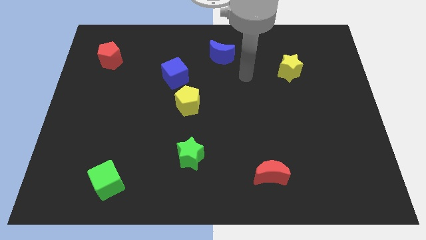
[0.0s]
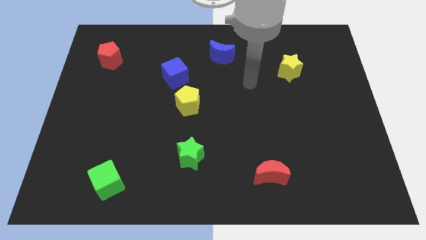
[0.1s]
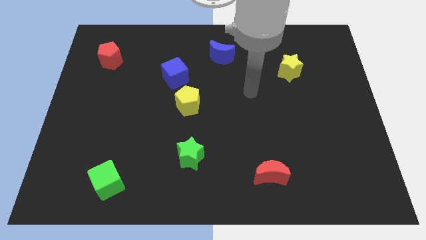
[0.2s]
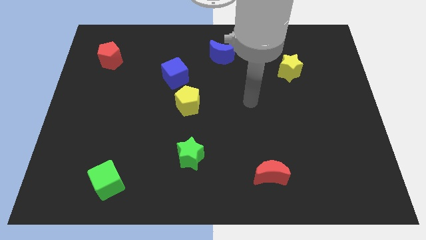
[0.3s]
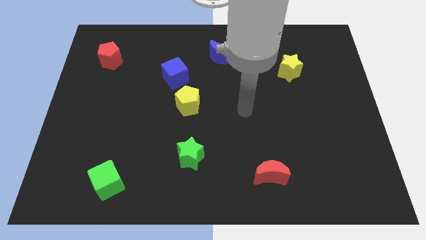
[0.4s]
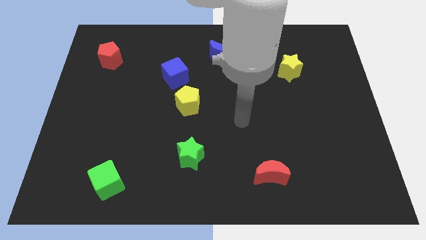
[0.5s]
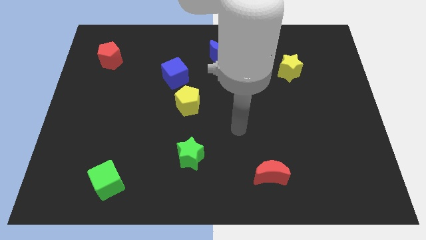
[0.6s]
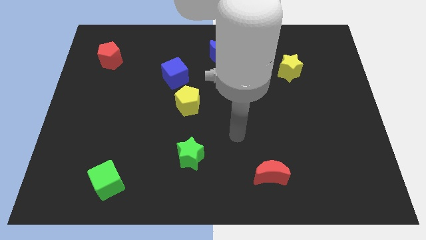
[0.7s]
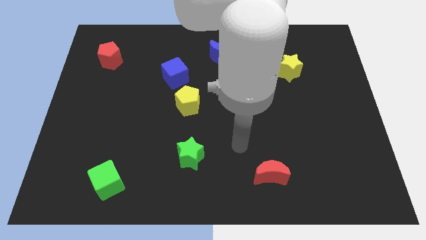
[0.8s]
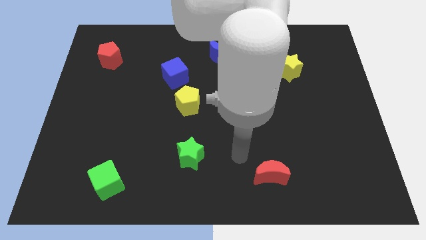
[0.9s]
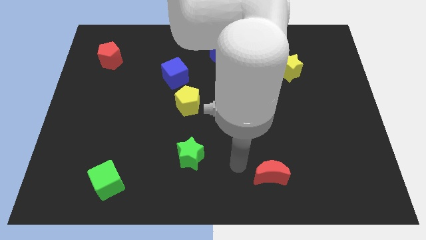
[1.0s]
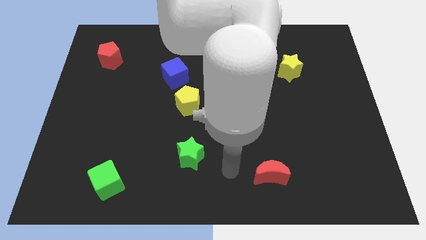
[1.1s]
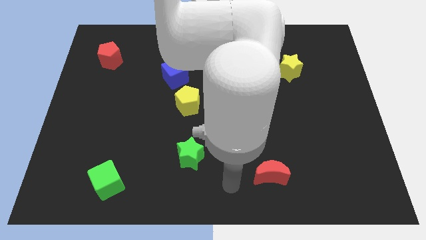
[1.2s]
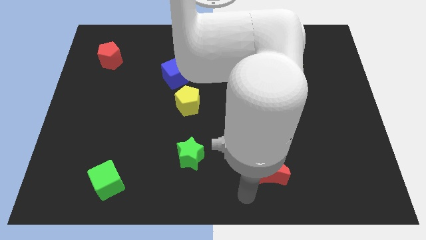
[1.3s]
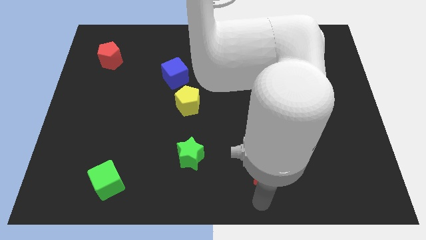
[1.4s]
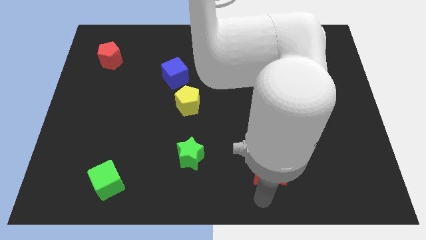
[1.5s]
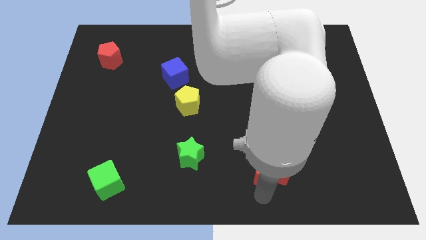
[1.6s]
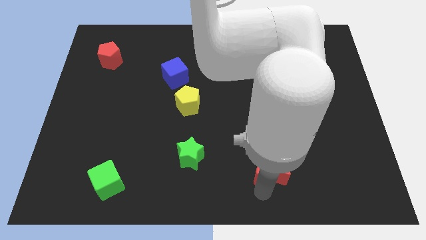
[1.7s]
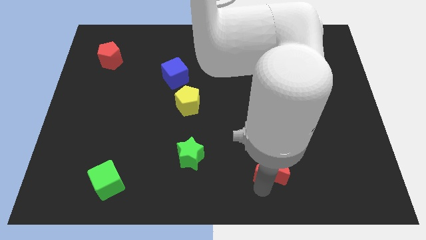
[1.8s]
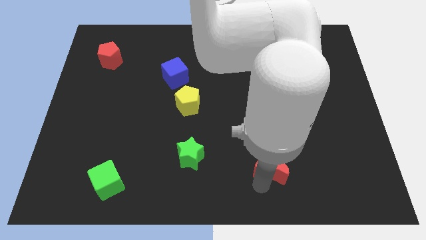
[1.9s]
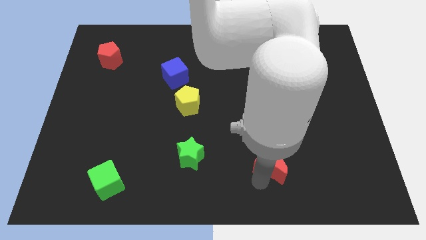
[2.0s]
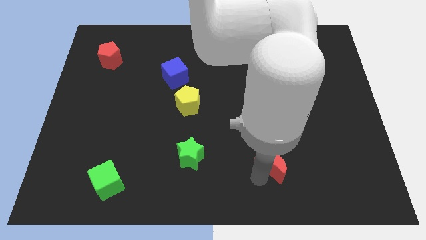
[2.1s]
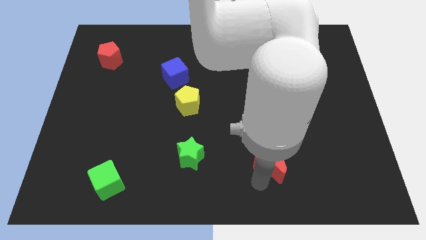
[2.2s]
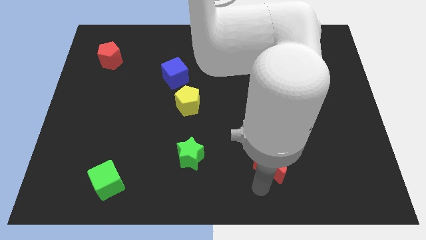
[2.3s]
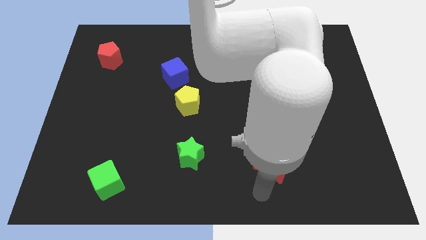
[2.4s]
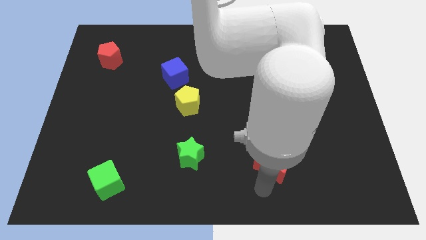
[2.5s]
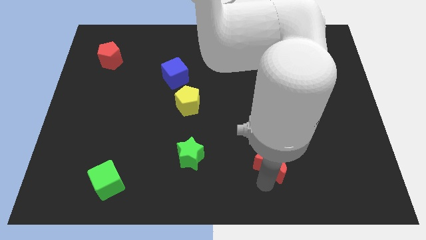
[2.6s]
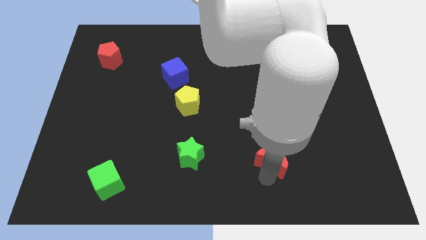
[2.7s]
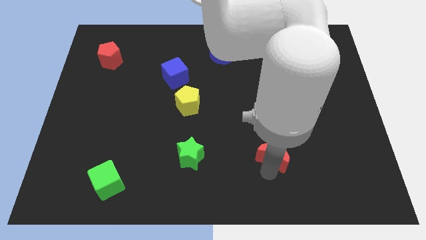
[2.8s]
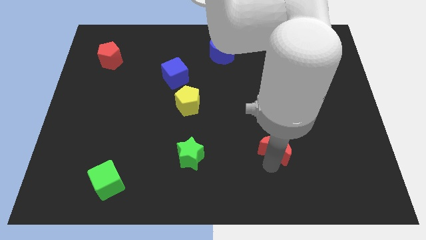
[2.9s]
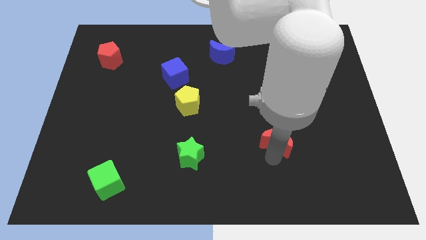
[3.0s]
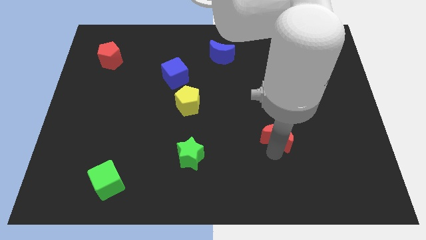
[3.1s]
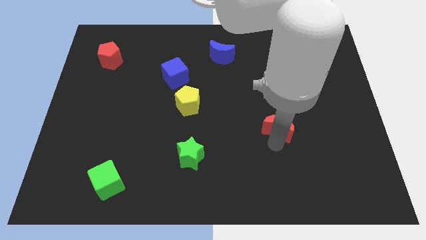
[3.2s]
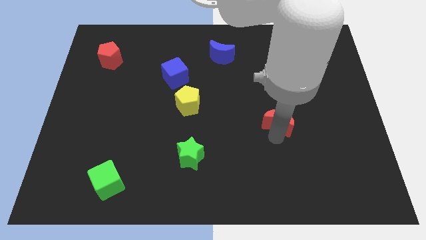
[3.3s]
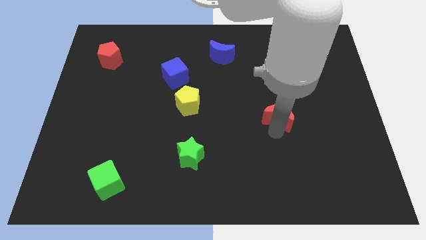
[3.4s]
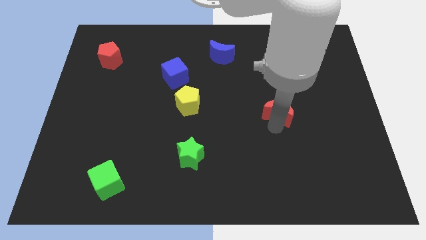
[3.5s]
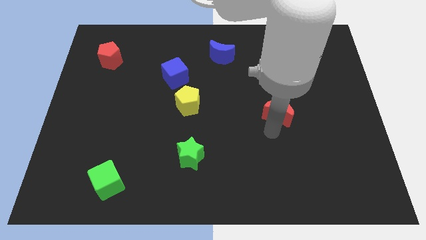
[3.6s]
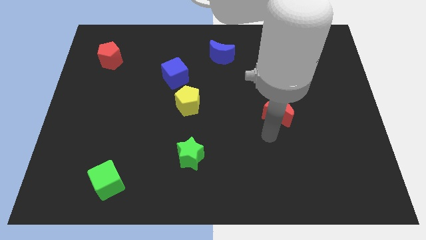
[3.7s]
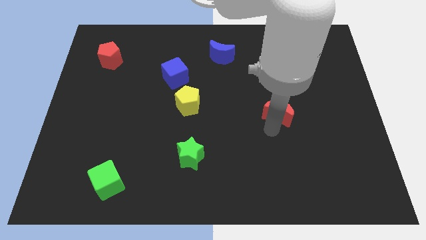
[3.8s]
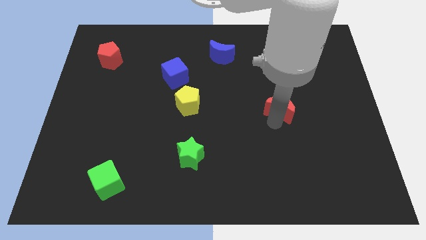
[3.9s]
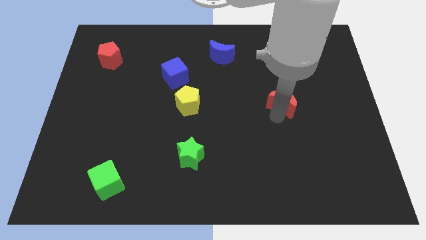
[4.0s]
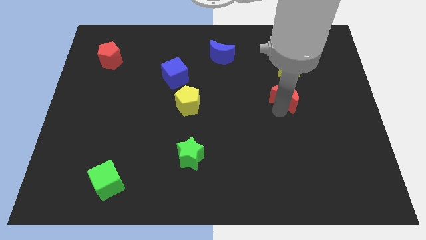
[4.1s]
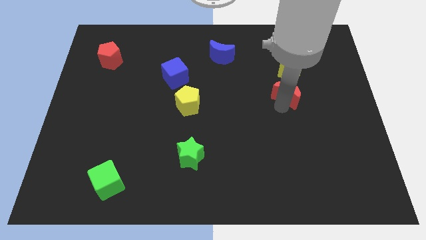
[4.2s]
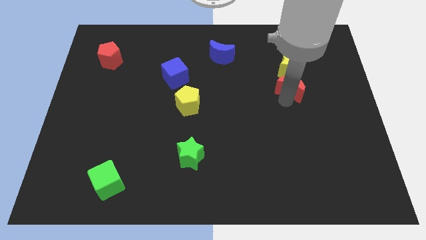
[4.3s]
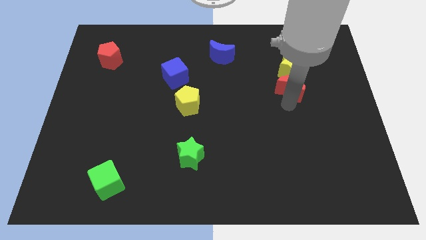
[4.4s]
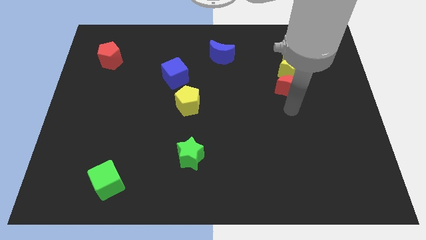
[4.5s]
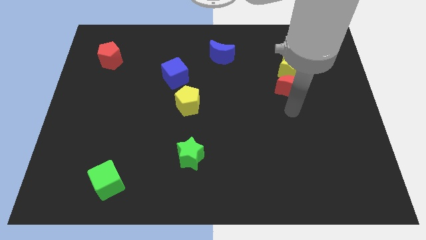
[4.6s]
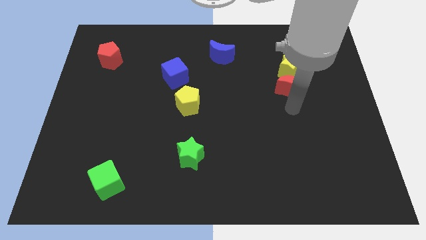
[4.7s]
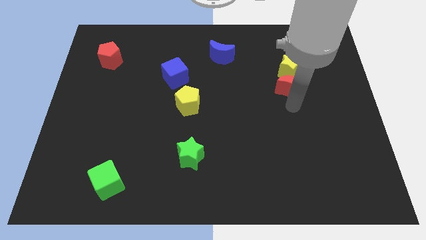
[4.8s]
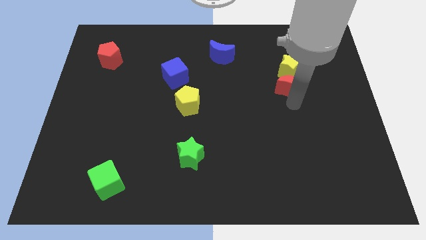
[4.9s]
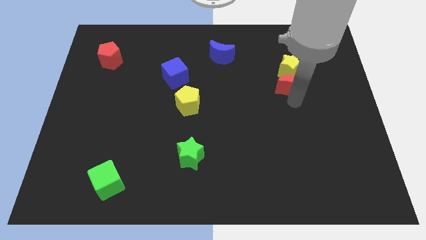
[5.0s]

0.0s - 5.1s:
slide the red moon to the yellow star

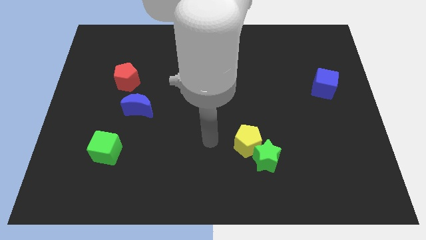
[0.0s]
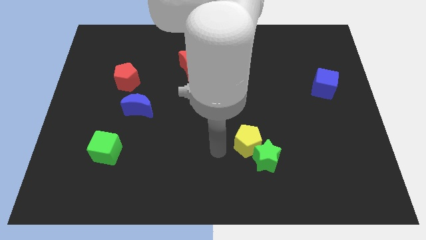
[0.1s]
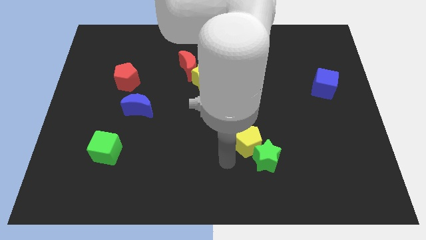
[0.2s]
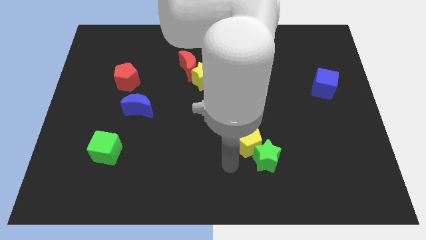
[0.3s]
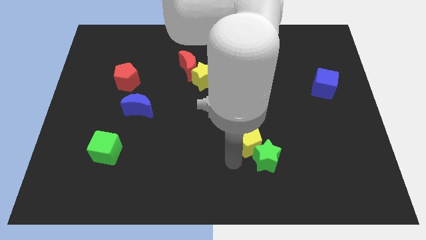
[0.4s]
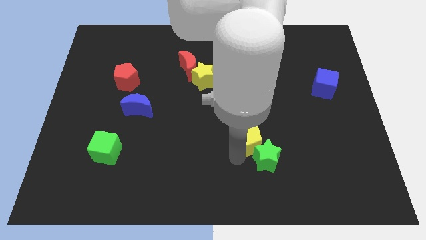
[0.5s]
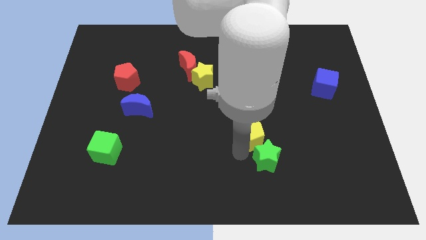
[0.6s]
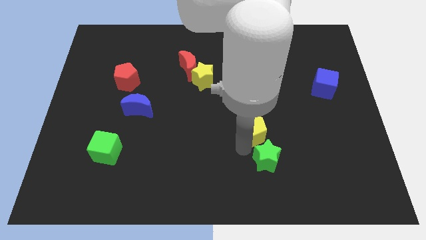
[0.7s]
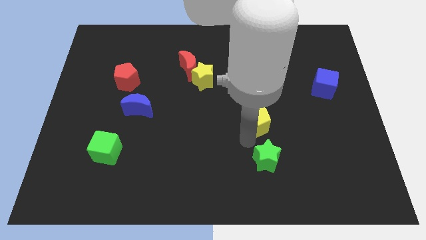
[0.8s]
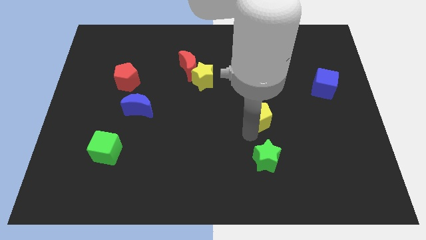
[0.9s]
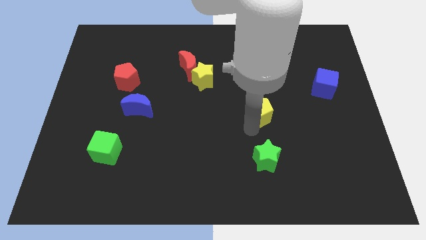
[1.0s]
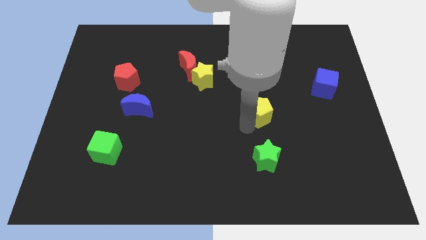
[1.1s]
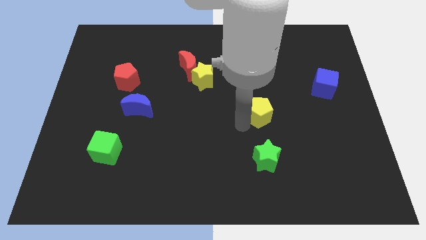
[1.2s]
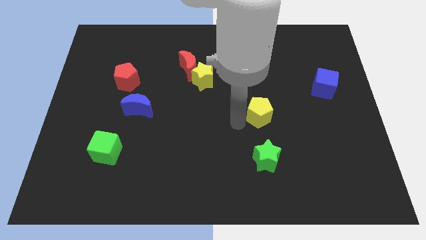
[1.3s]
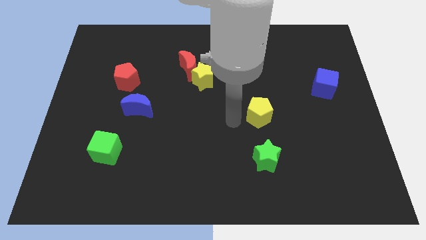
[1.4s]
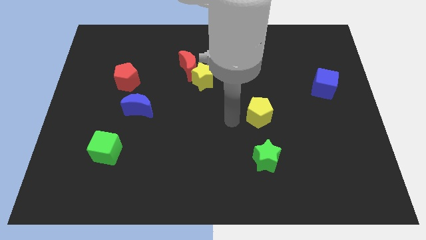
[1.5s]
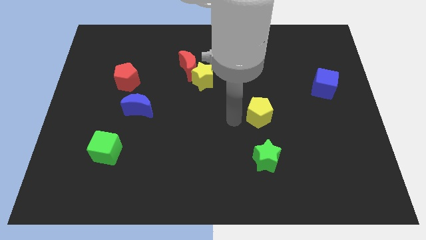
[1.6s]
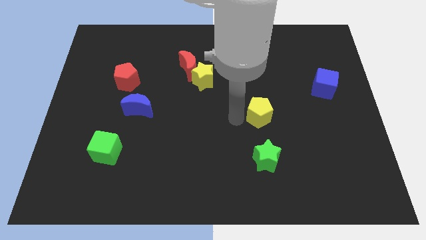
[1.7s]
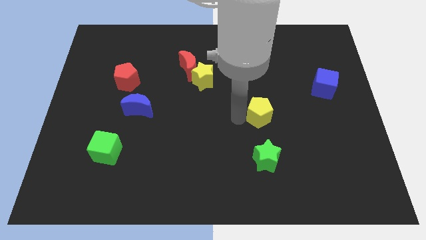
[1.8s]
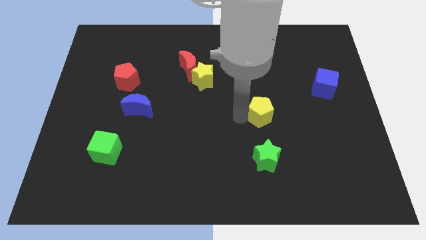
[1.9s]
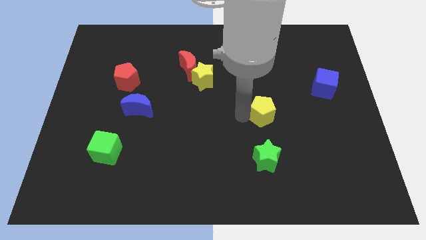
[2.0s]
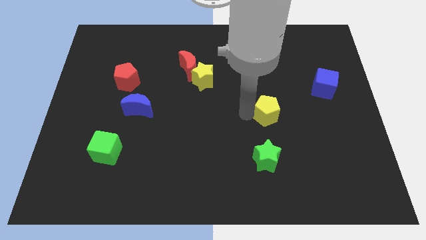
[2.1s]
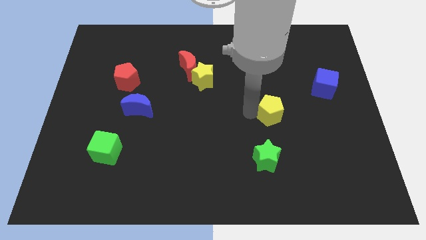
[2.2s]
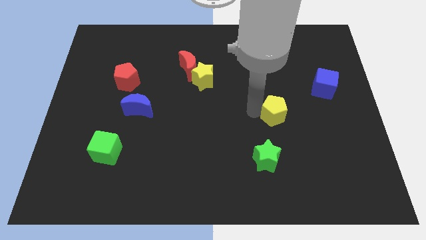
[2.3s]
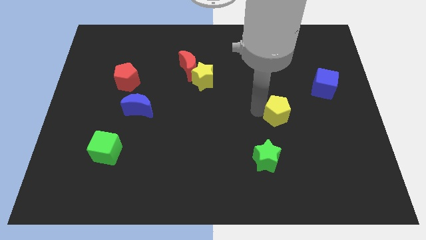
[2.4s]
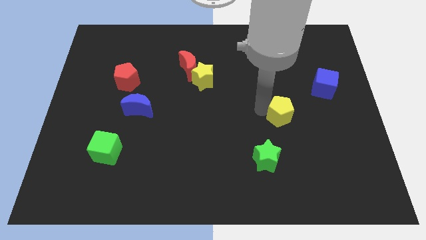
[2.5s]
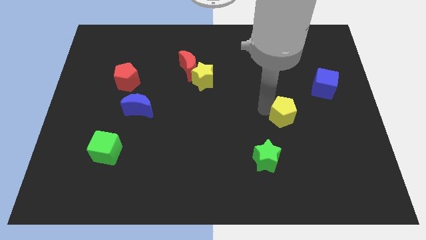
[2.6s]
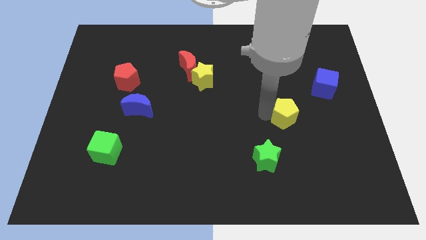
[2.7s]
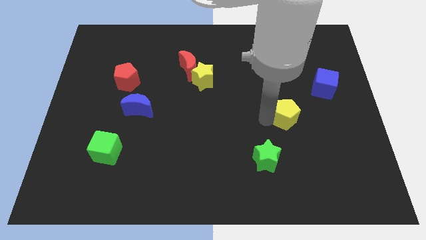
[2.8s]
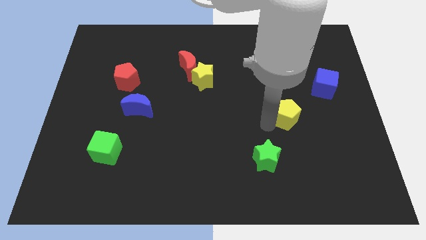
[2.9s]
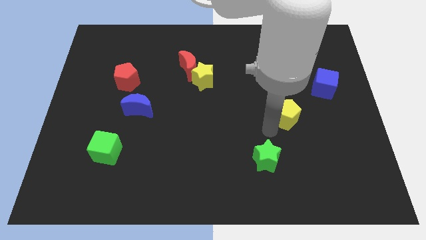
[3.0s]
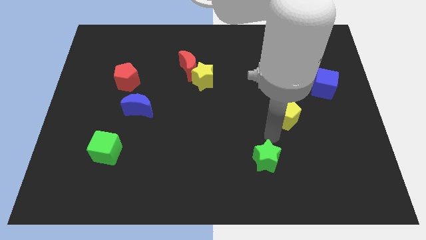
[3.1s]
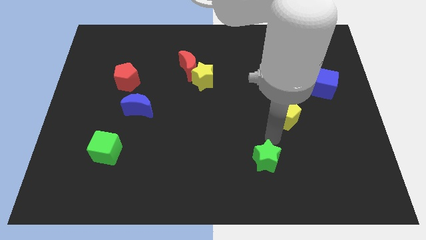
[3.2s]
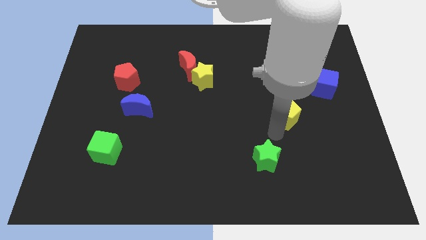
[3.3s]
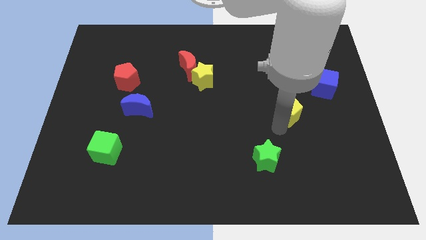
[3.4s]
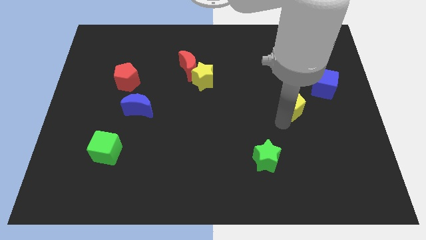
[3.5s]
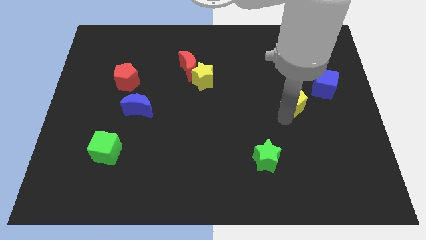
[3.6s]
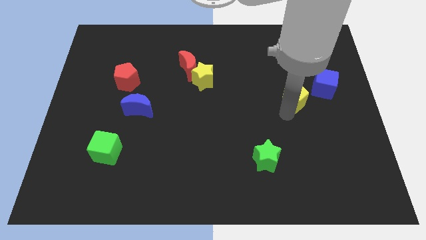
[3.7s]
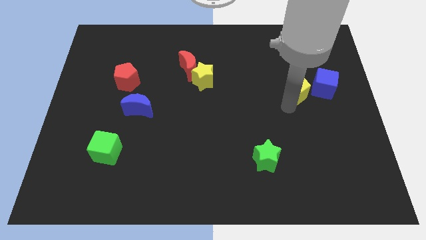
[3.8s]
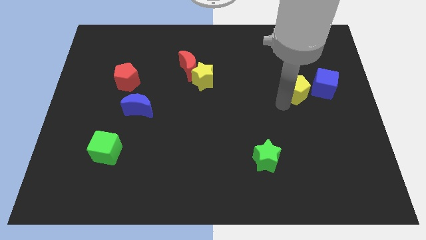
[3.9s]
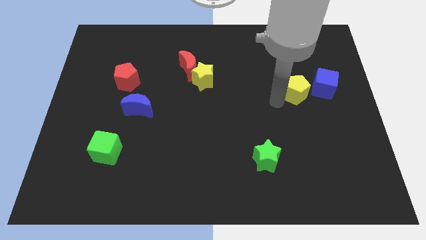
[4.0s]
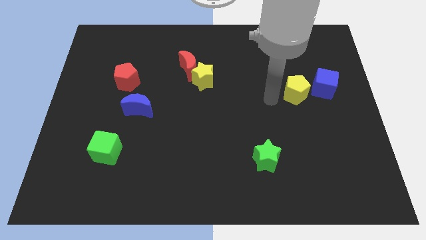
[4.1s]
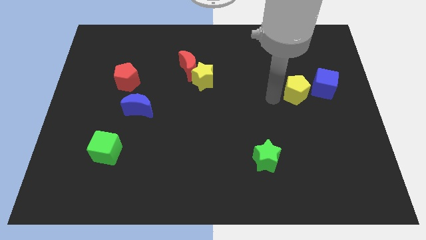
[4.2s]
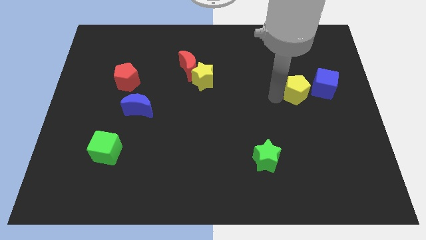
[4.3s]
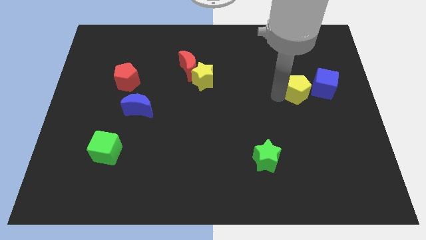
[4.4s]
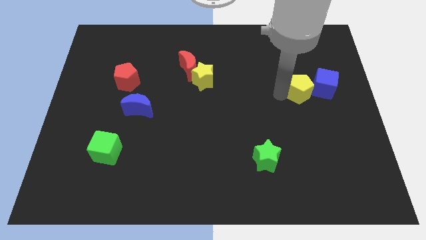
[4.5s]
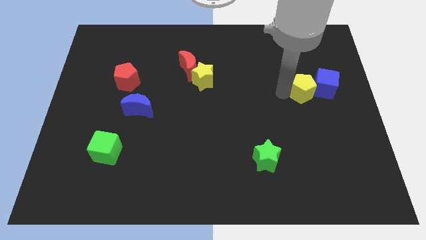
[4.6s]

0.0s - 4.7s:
push the yellow pentagon towards the blue cube
